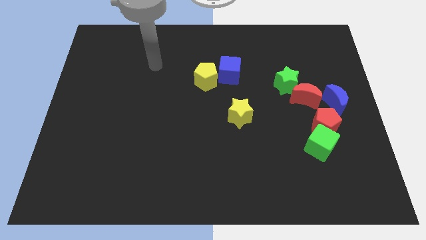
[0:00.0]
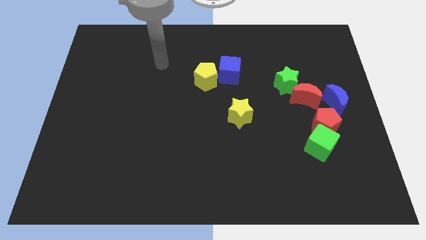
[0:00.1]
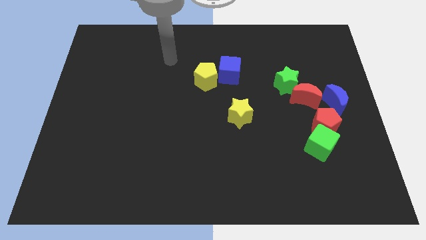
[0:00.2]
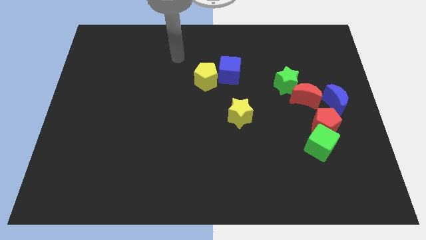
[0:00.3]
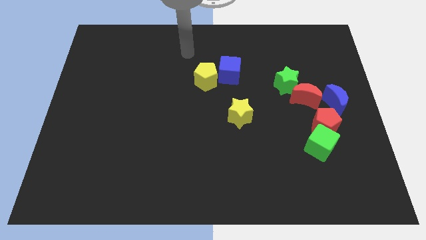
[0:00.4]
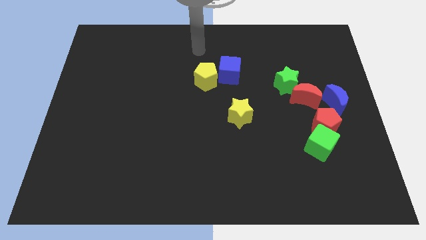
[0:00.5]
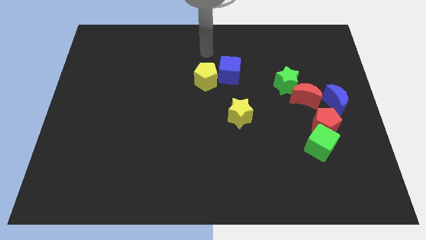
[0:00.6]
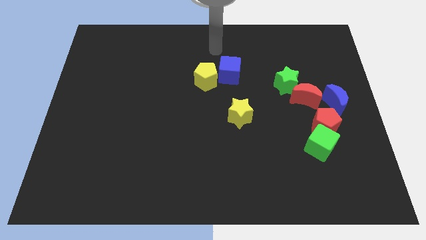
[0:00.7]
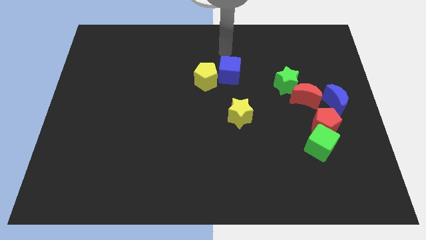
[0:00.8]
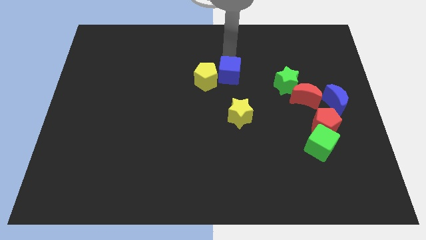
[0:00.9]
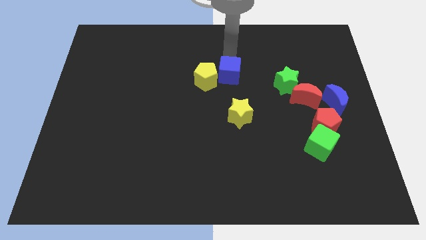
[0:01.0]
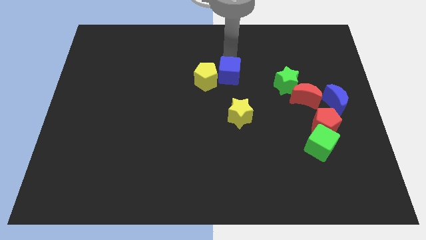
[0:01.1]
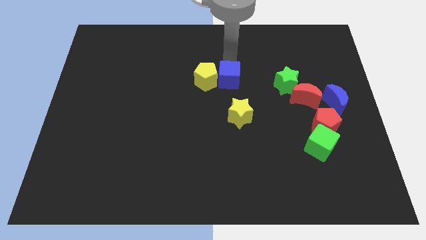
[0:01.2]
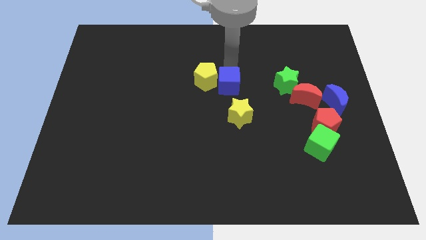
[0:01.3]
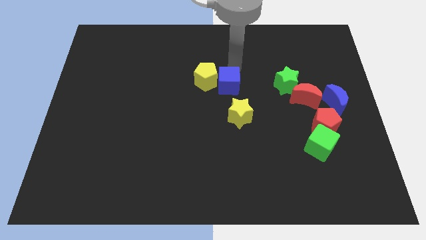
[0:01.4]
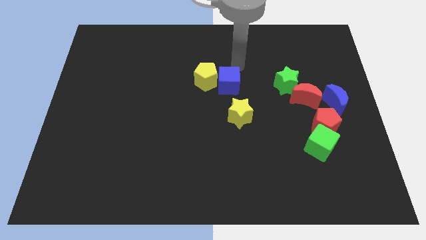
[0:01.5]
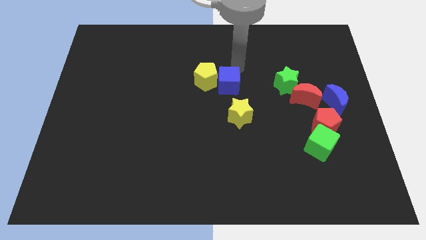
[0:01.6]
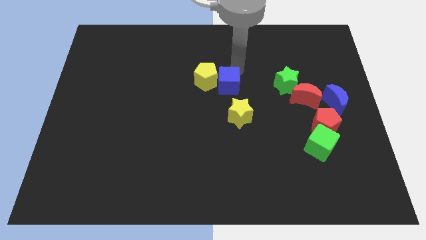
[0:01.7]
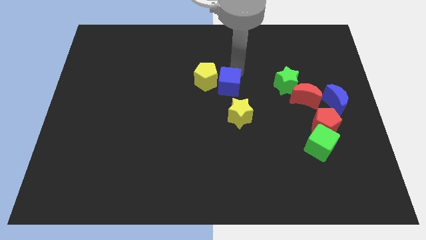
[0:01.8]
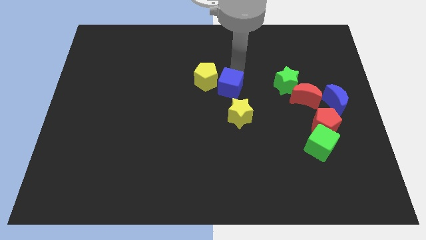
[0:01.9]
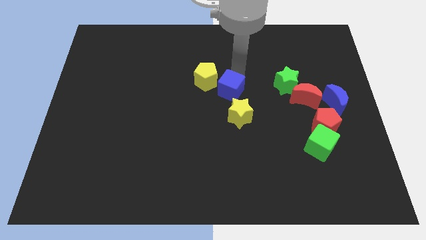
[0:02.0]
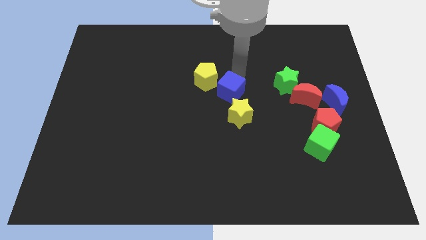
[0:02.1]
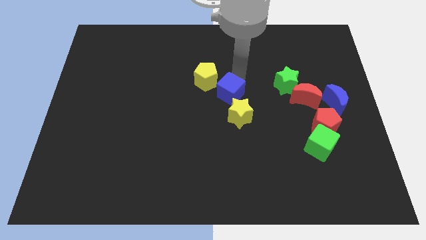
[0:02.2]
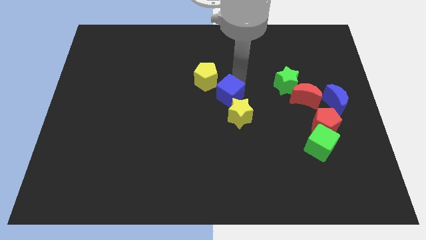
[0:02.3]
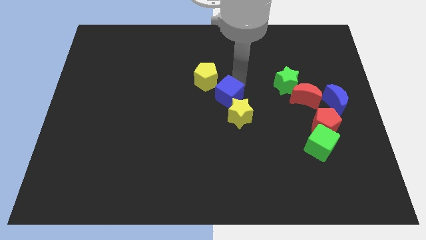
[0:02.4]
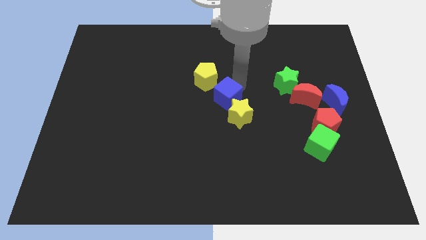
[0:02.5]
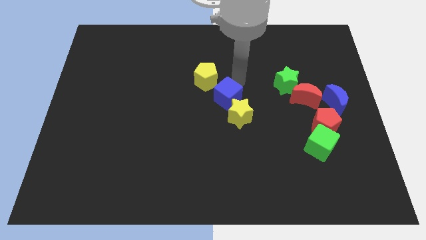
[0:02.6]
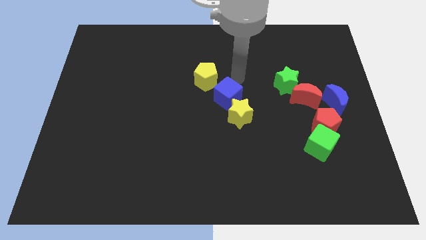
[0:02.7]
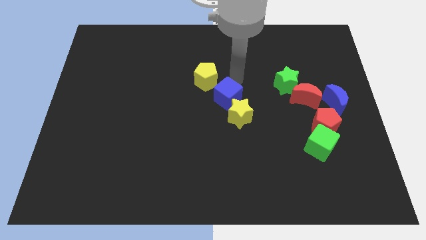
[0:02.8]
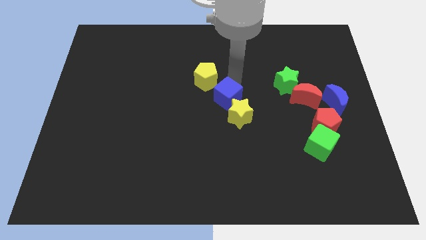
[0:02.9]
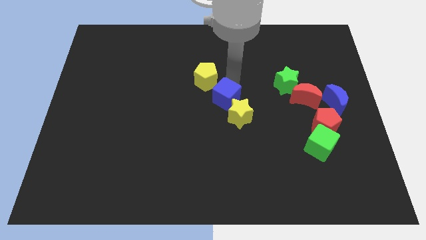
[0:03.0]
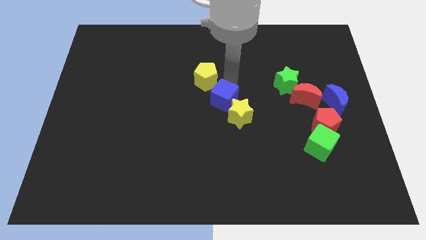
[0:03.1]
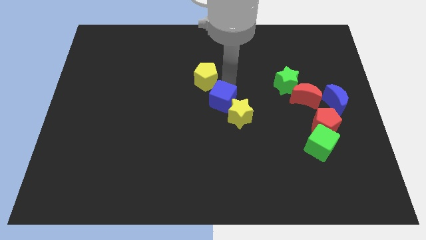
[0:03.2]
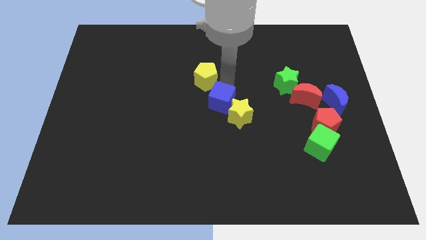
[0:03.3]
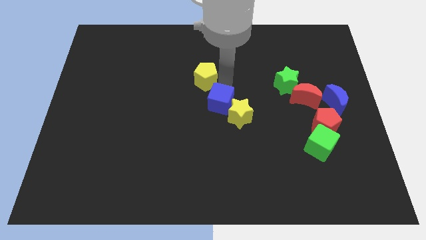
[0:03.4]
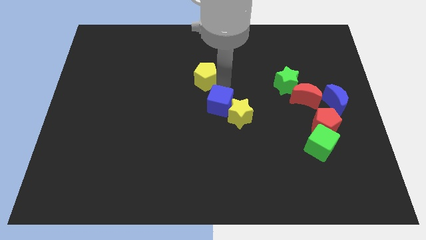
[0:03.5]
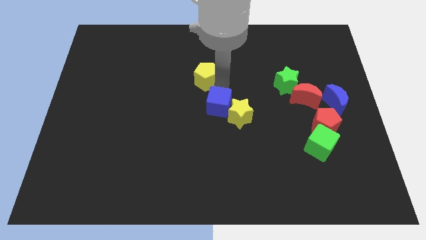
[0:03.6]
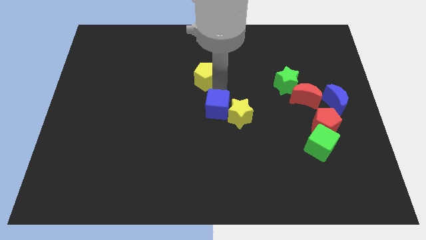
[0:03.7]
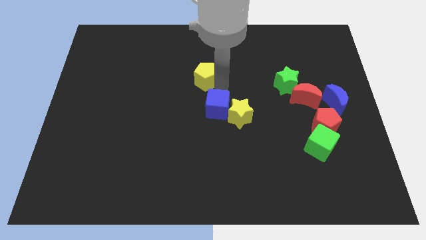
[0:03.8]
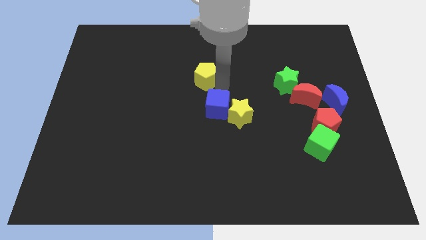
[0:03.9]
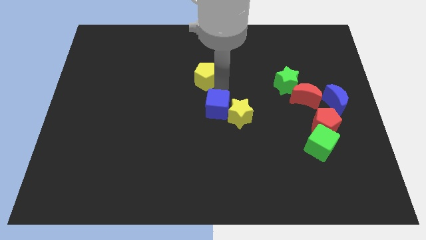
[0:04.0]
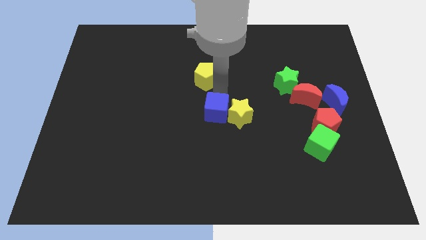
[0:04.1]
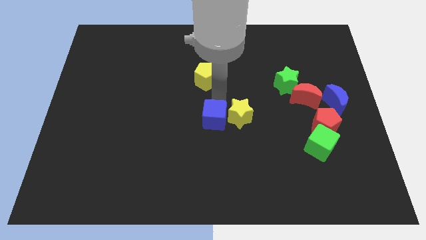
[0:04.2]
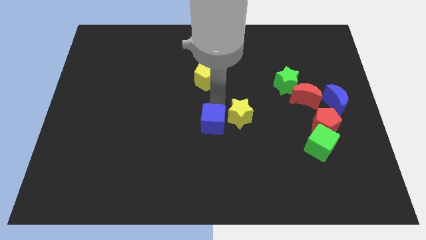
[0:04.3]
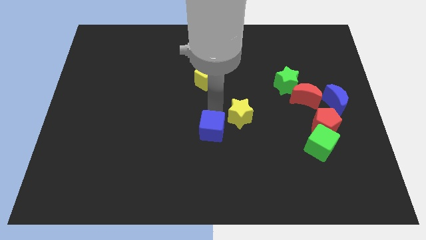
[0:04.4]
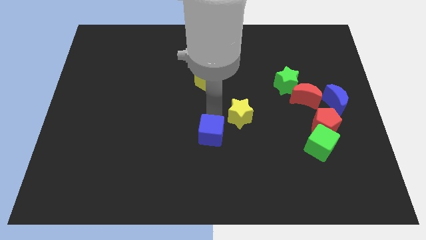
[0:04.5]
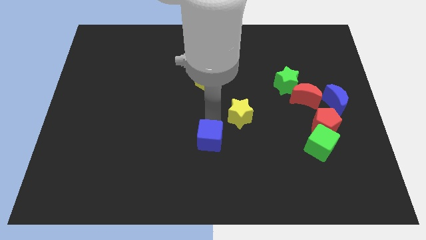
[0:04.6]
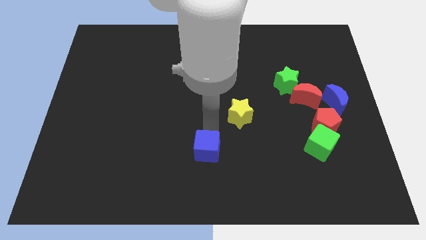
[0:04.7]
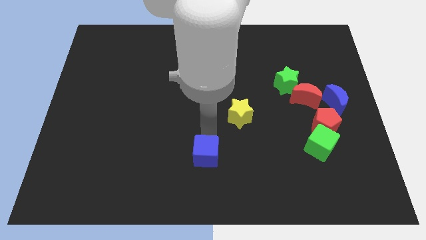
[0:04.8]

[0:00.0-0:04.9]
put the blue cube to the bottom
